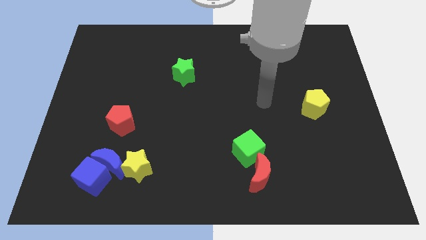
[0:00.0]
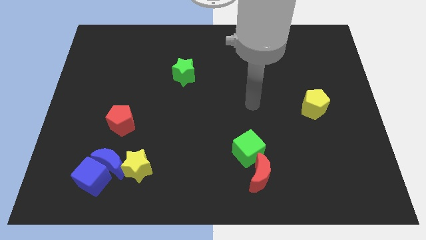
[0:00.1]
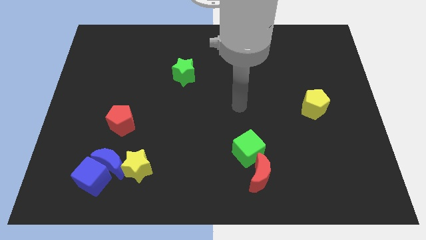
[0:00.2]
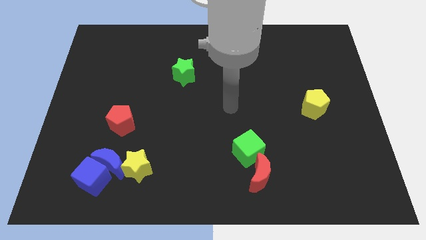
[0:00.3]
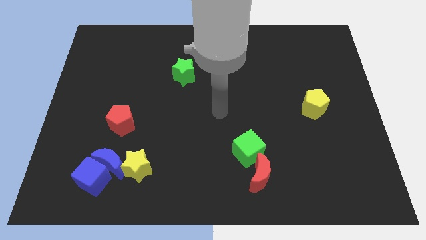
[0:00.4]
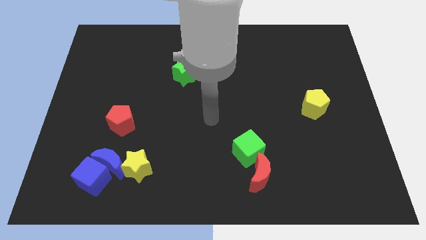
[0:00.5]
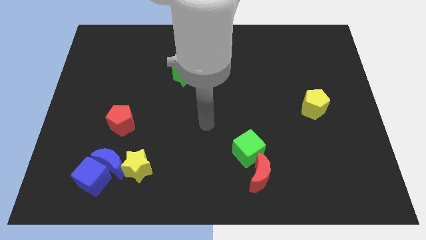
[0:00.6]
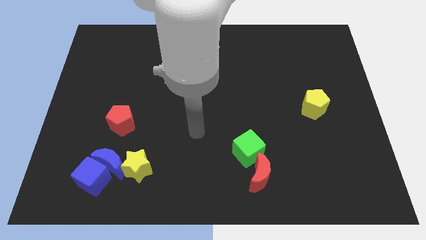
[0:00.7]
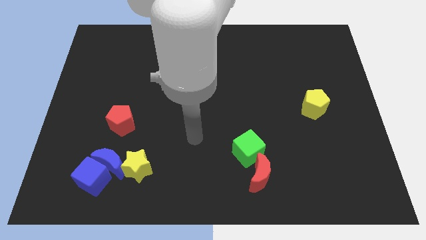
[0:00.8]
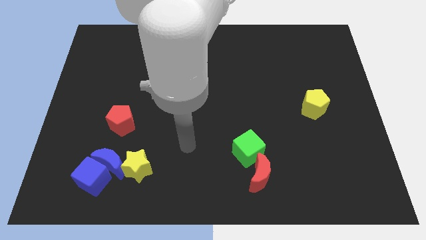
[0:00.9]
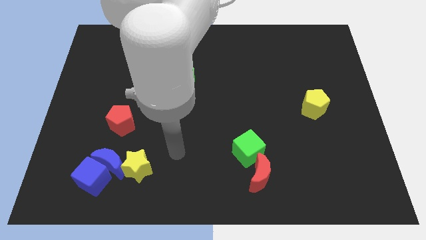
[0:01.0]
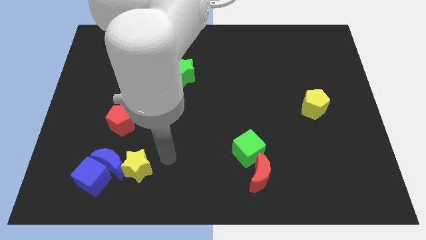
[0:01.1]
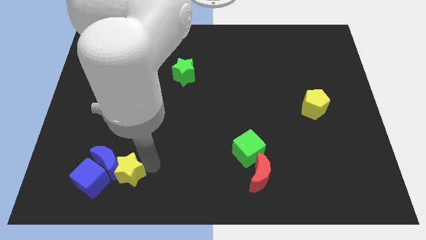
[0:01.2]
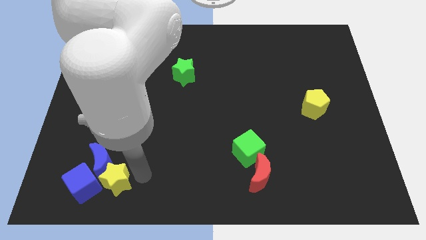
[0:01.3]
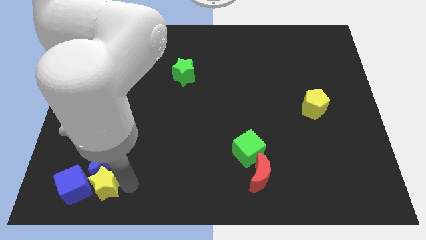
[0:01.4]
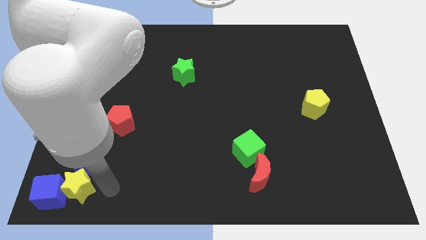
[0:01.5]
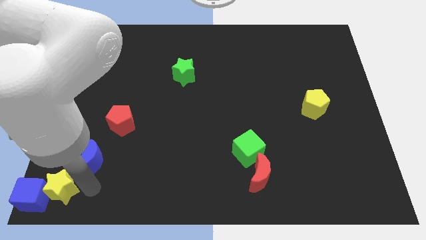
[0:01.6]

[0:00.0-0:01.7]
separate the blue moon from the blue cube and yellow star

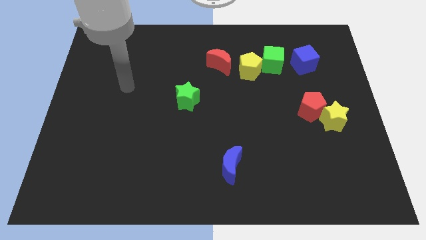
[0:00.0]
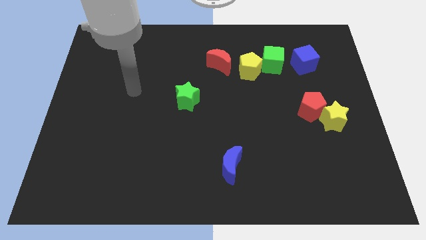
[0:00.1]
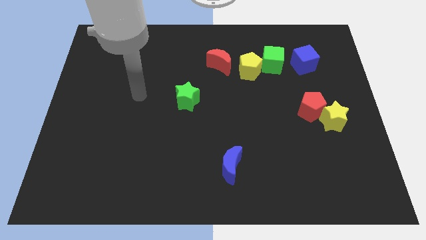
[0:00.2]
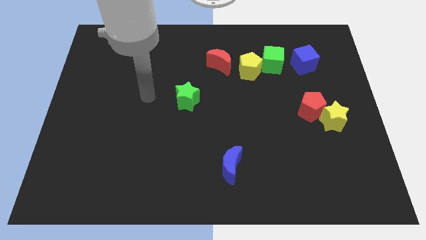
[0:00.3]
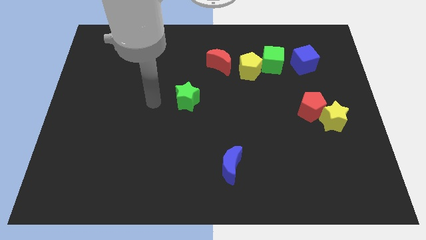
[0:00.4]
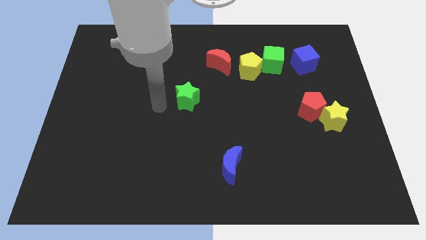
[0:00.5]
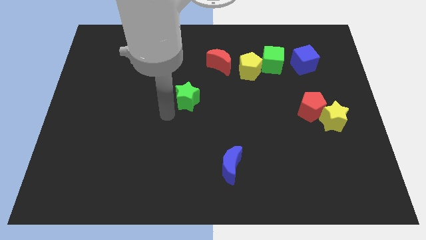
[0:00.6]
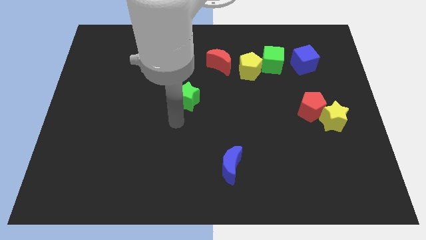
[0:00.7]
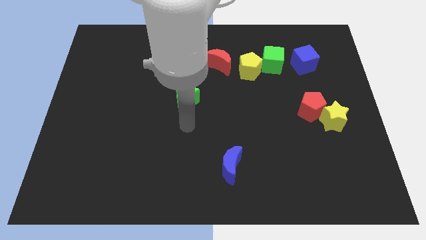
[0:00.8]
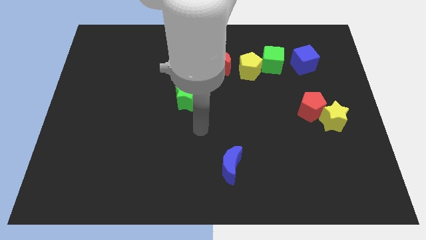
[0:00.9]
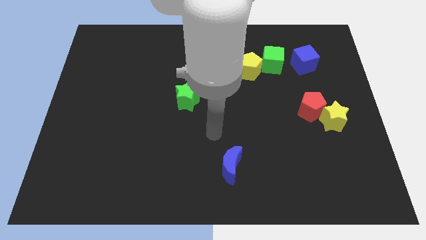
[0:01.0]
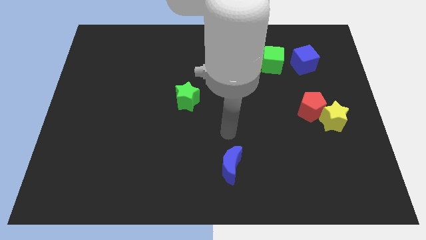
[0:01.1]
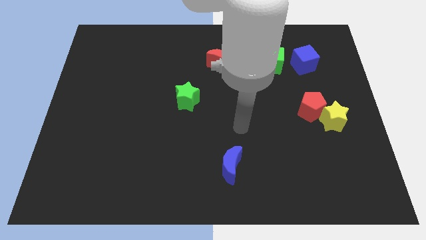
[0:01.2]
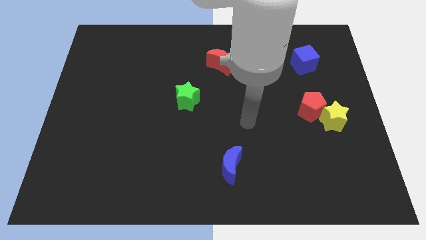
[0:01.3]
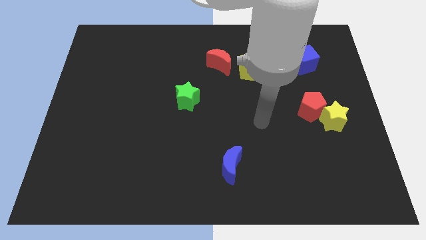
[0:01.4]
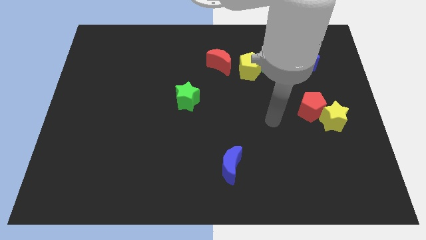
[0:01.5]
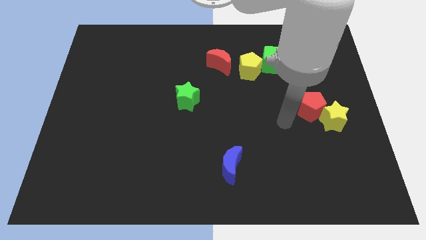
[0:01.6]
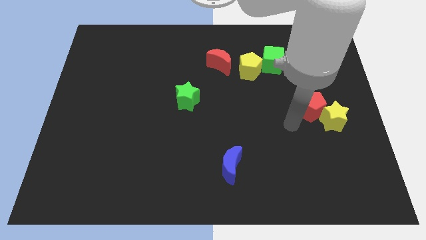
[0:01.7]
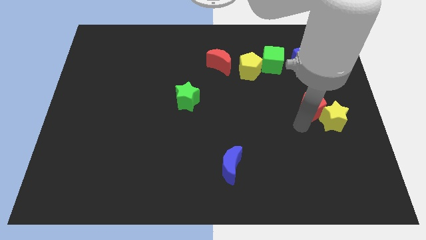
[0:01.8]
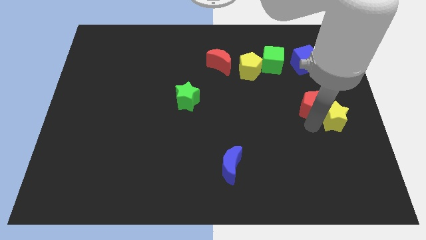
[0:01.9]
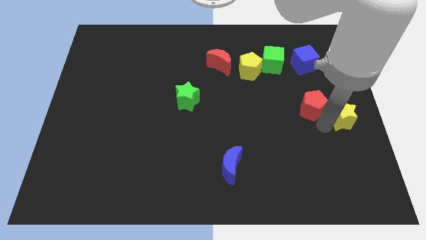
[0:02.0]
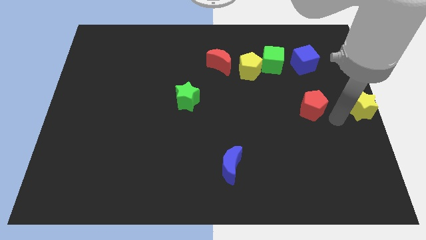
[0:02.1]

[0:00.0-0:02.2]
move the red pentagon away from the yellow star

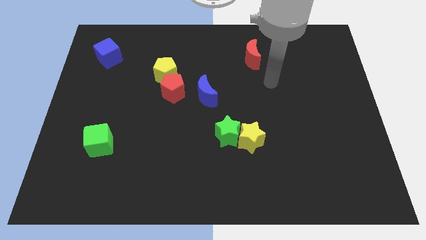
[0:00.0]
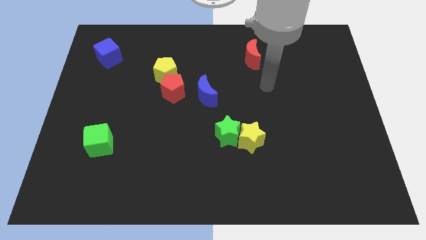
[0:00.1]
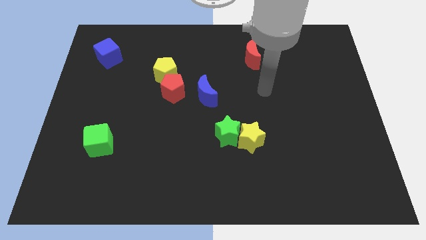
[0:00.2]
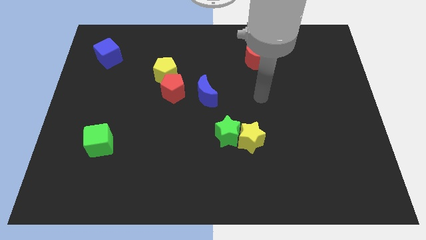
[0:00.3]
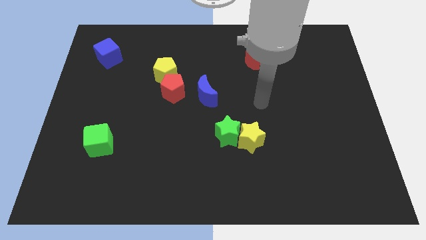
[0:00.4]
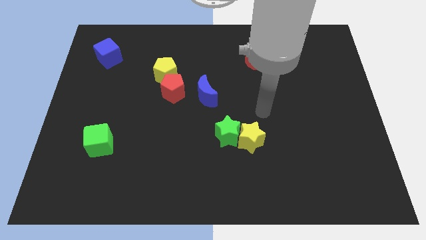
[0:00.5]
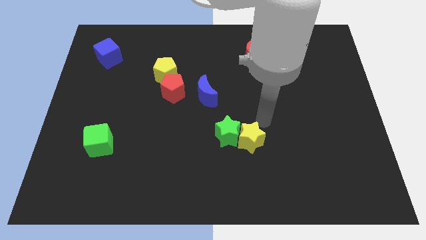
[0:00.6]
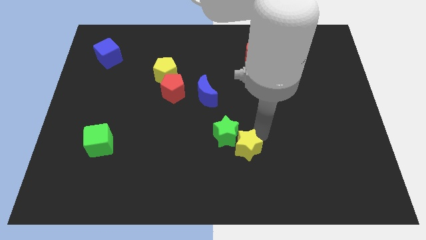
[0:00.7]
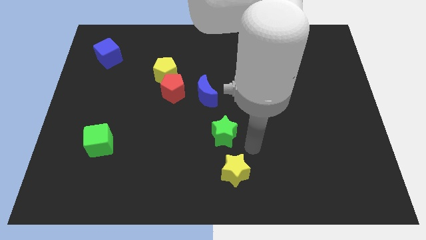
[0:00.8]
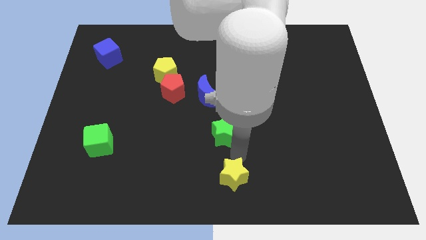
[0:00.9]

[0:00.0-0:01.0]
move the green star away from the yellow star

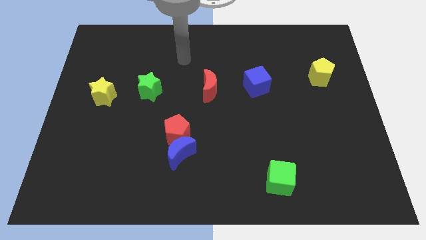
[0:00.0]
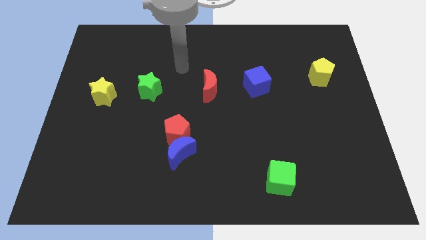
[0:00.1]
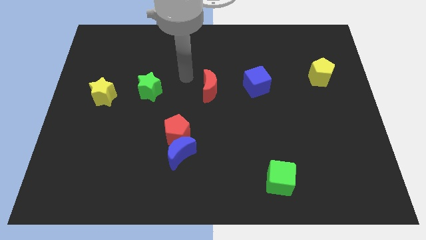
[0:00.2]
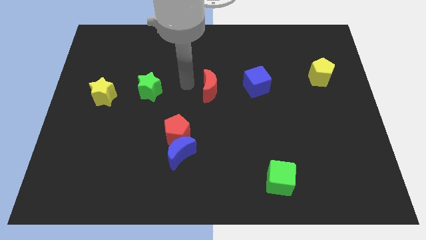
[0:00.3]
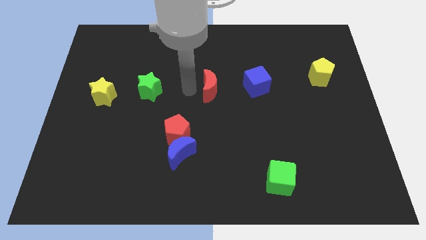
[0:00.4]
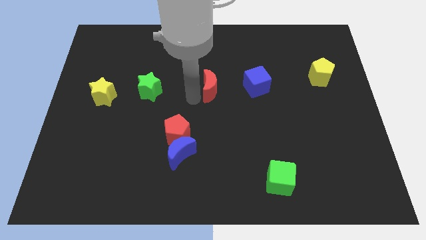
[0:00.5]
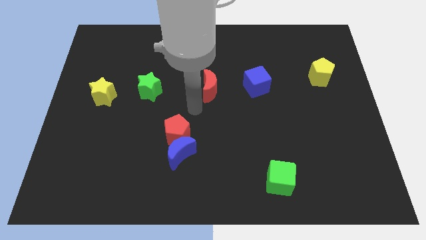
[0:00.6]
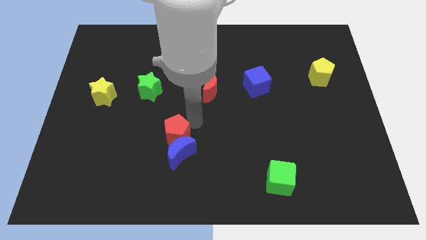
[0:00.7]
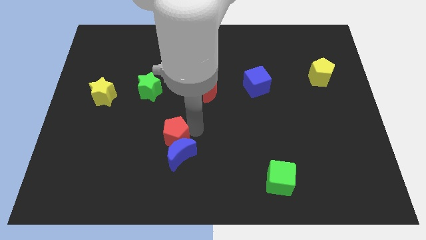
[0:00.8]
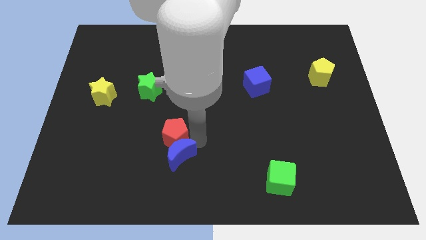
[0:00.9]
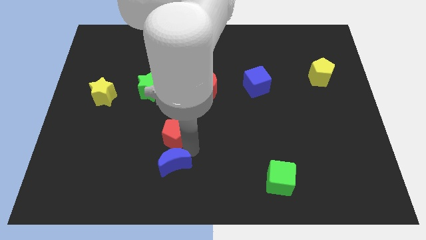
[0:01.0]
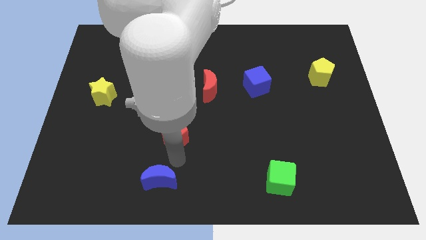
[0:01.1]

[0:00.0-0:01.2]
move the red pentagon away from the blue moon

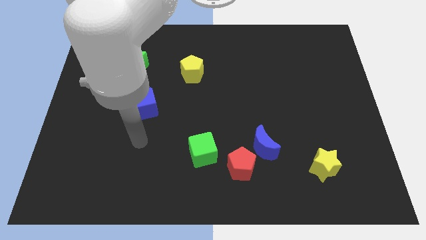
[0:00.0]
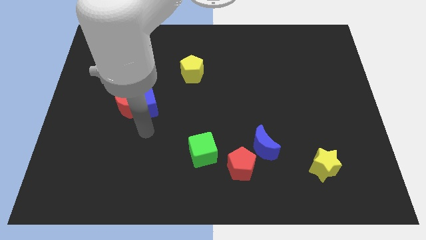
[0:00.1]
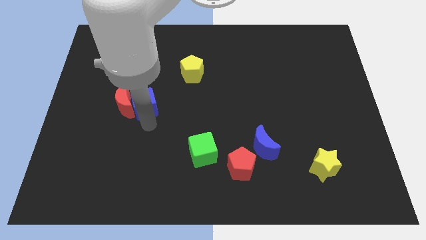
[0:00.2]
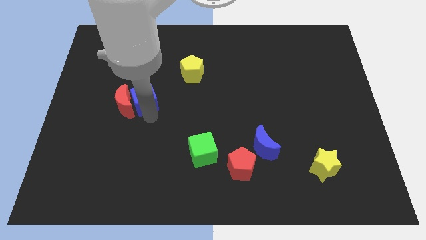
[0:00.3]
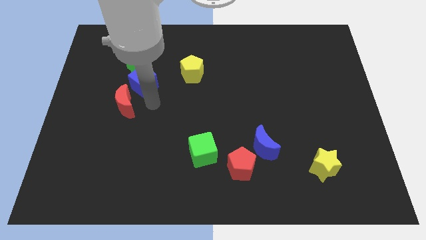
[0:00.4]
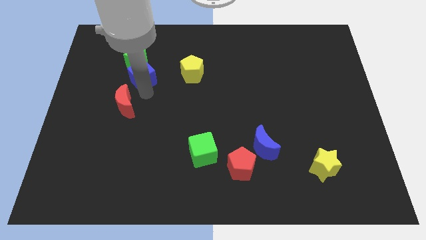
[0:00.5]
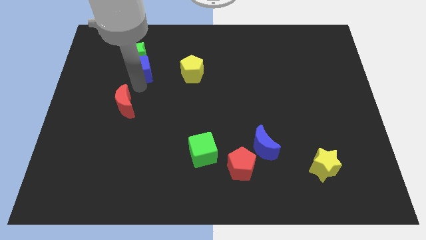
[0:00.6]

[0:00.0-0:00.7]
pull the red moon apart from the blue cube

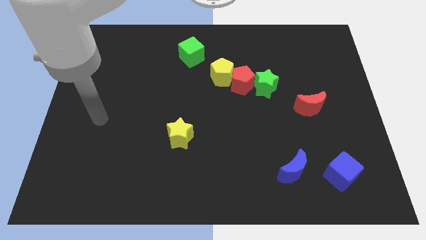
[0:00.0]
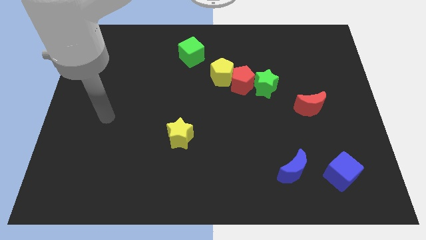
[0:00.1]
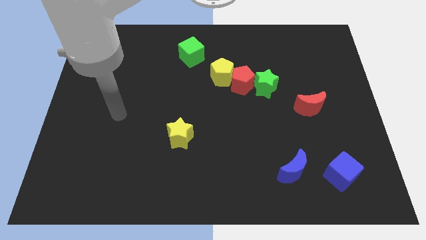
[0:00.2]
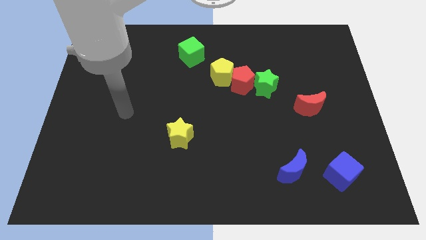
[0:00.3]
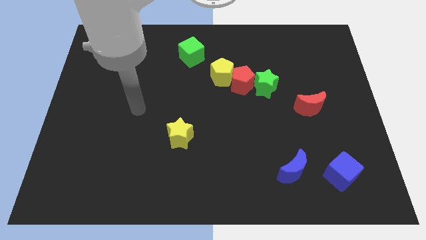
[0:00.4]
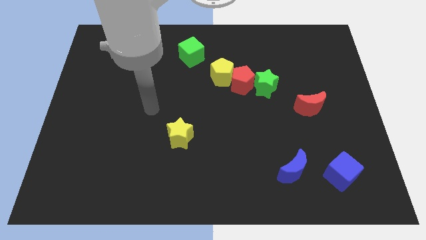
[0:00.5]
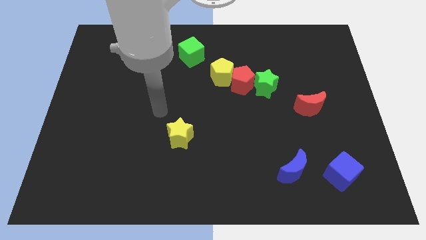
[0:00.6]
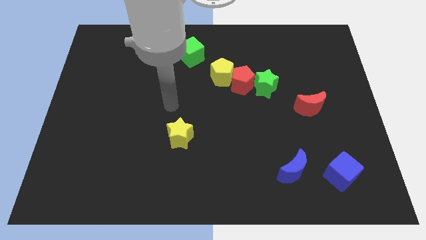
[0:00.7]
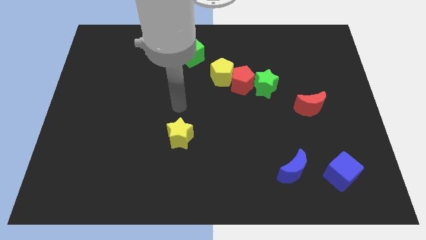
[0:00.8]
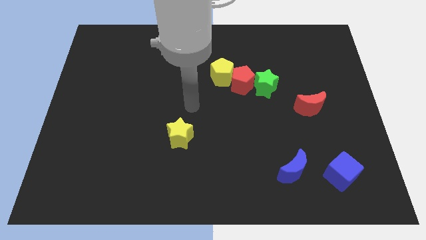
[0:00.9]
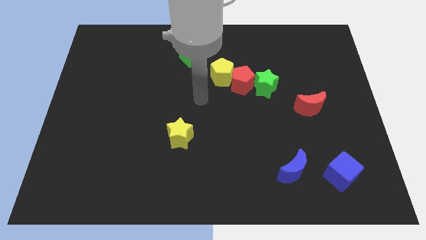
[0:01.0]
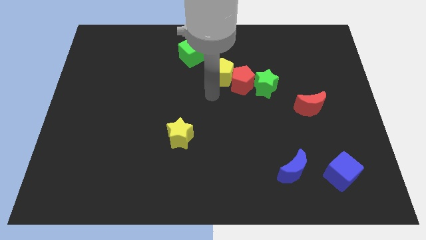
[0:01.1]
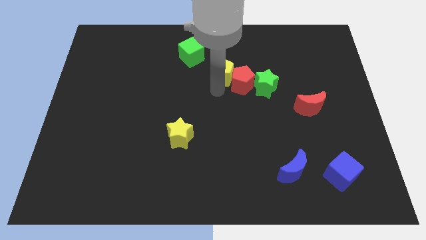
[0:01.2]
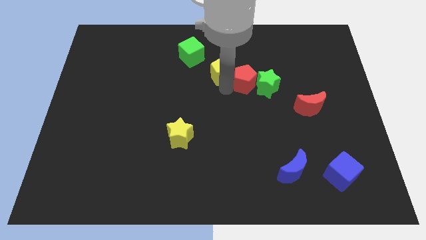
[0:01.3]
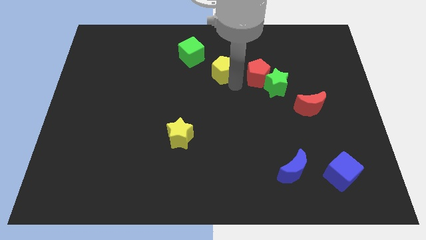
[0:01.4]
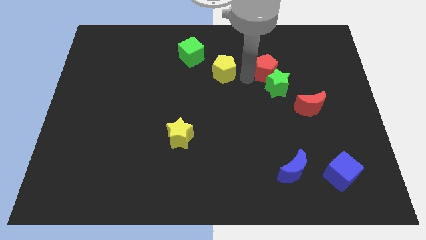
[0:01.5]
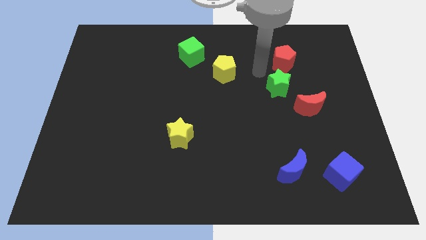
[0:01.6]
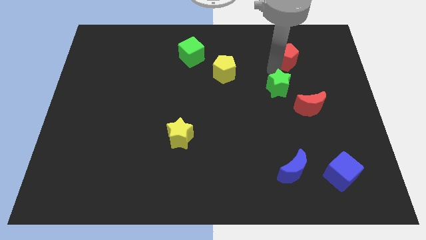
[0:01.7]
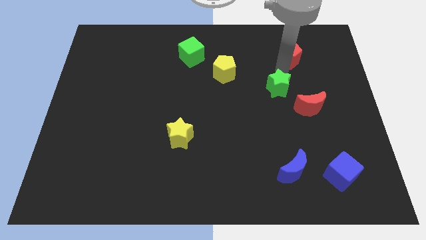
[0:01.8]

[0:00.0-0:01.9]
move the green star away from the red pentagon

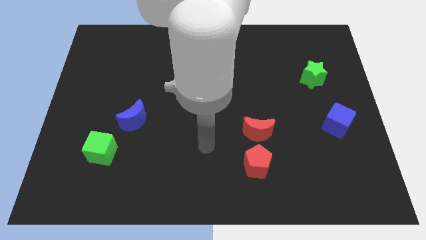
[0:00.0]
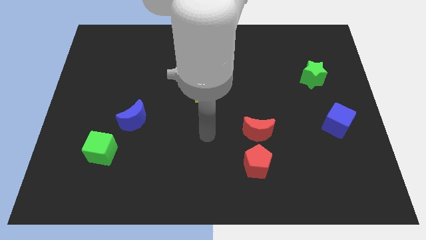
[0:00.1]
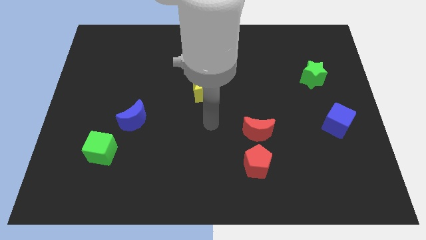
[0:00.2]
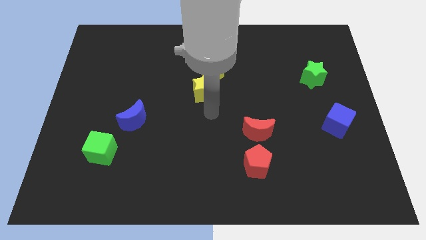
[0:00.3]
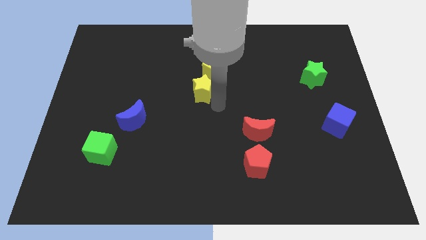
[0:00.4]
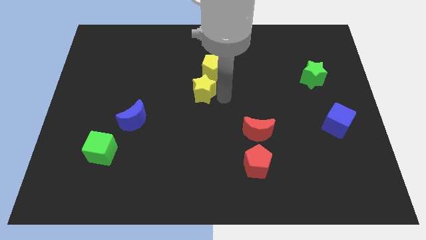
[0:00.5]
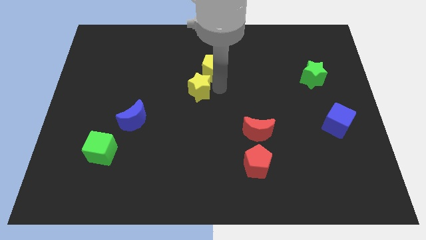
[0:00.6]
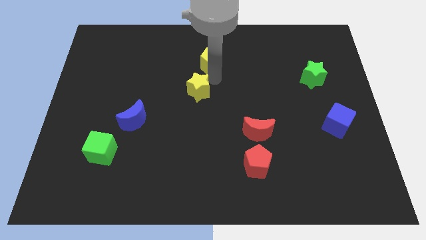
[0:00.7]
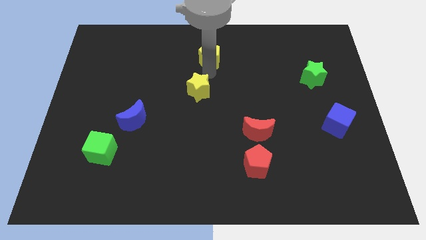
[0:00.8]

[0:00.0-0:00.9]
move the yellow star away from the yellow pentagon
